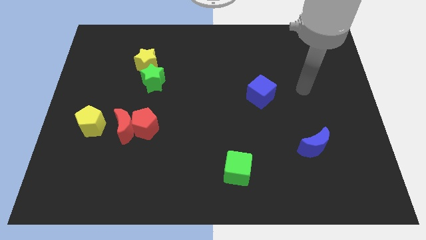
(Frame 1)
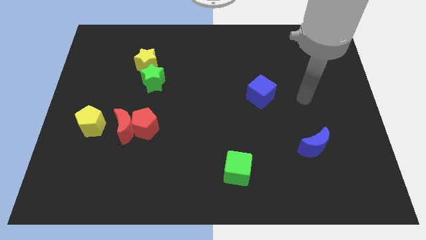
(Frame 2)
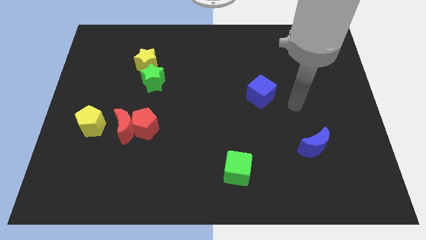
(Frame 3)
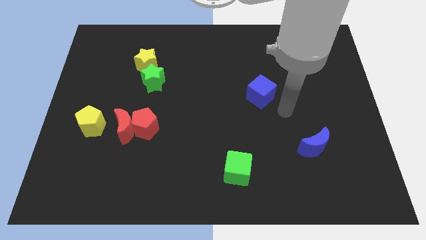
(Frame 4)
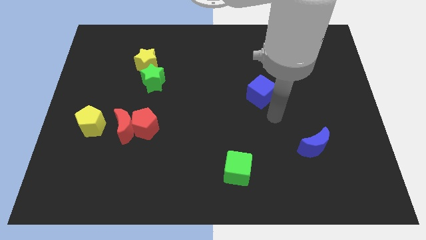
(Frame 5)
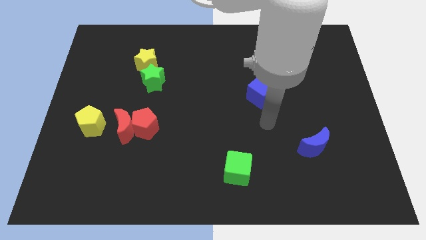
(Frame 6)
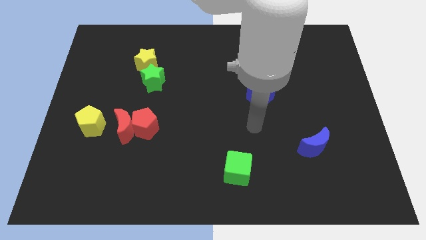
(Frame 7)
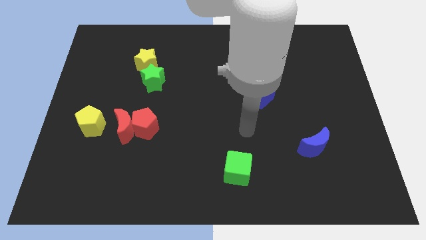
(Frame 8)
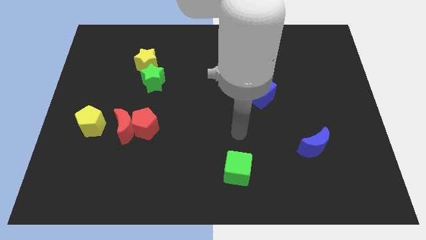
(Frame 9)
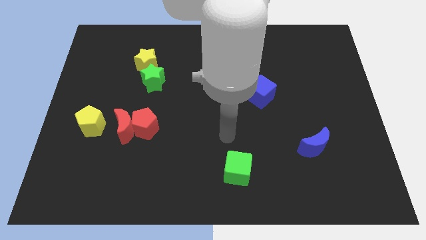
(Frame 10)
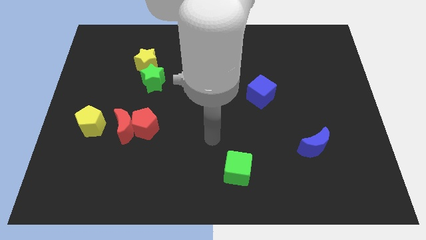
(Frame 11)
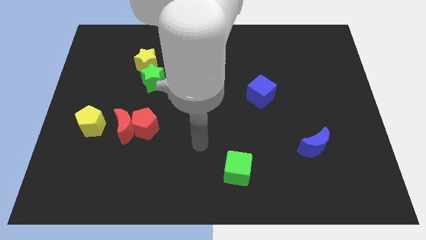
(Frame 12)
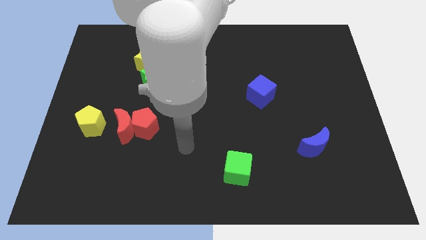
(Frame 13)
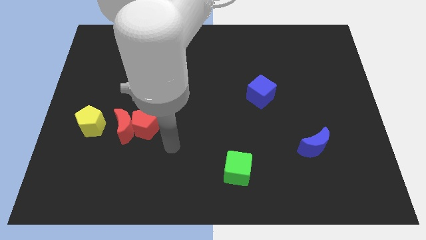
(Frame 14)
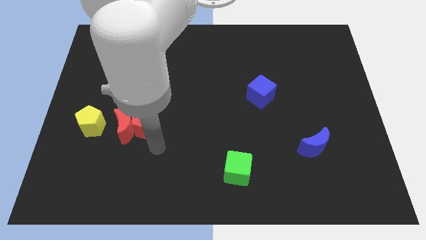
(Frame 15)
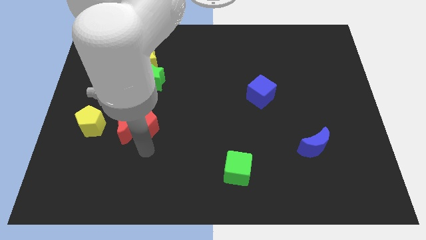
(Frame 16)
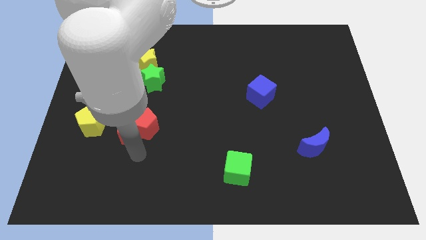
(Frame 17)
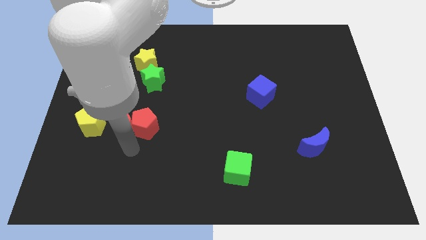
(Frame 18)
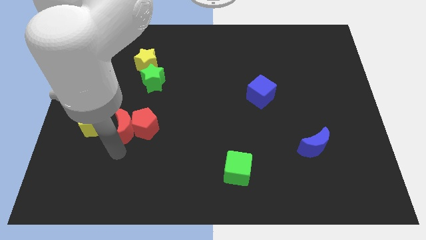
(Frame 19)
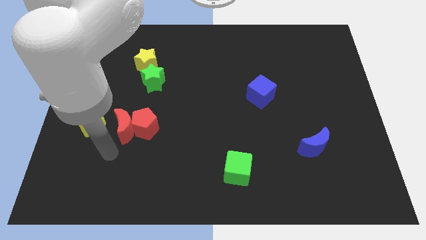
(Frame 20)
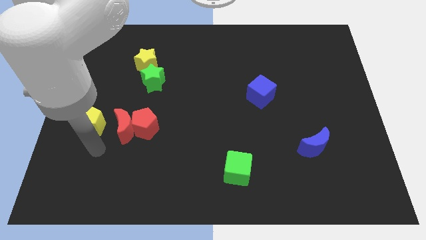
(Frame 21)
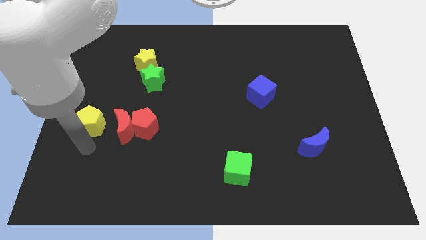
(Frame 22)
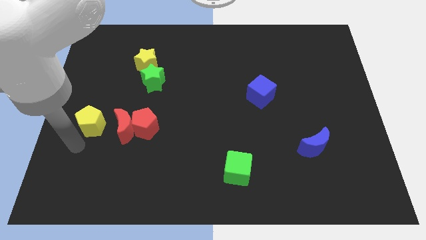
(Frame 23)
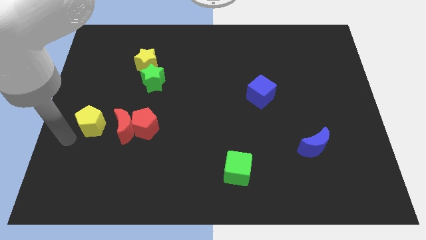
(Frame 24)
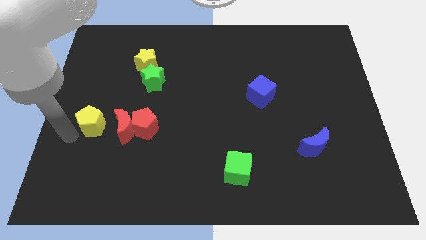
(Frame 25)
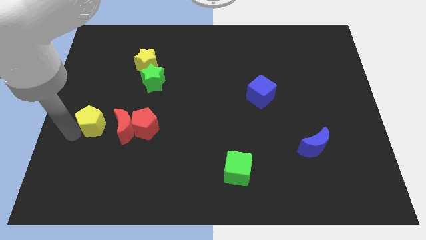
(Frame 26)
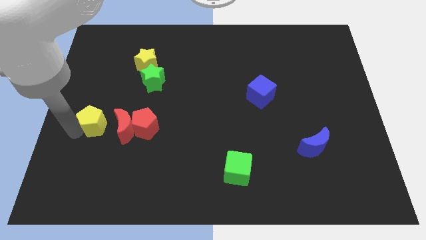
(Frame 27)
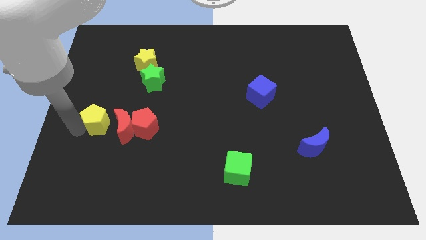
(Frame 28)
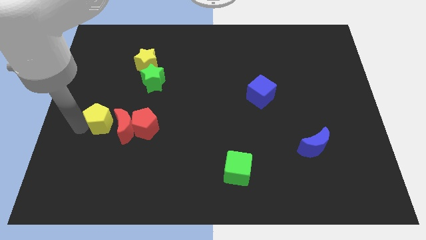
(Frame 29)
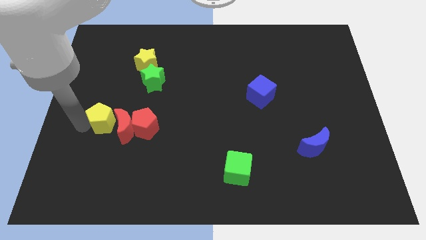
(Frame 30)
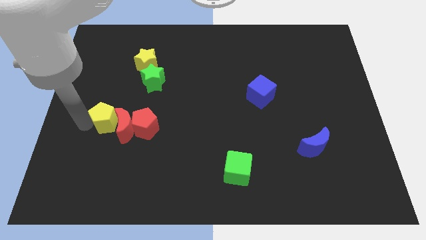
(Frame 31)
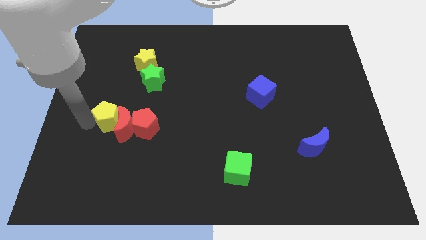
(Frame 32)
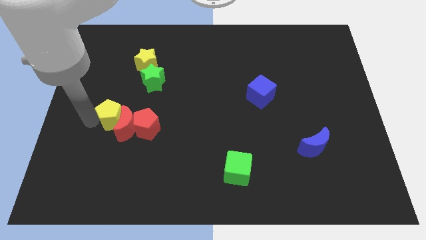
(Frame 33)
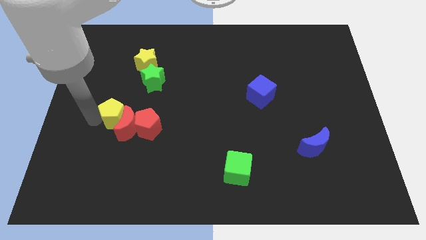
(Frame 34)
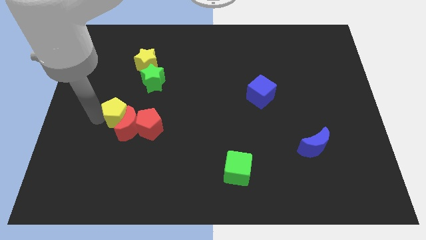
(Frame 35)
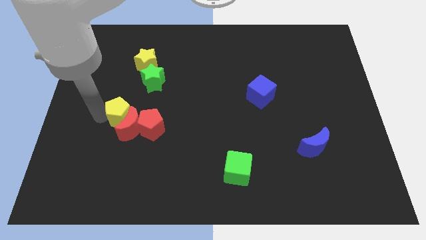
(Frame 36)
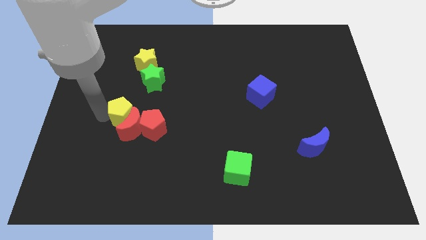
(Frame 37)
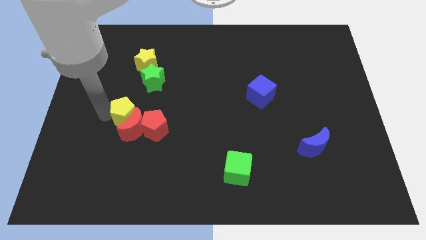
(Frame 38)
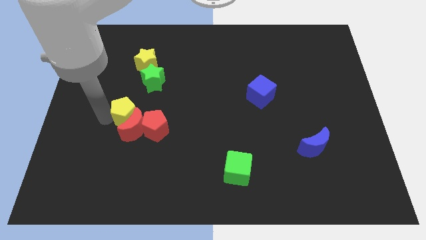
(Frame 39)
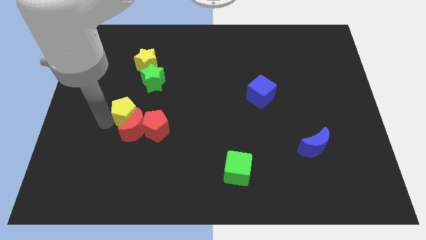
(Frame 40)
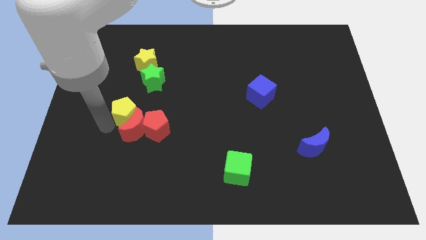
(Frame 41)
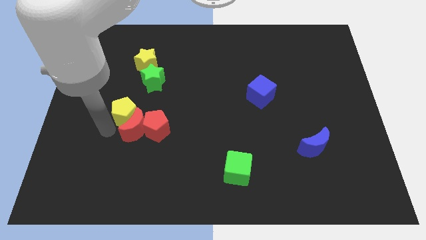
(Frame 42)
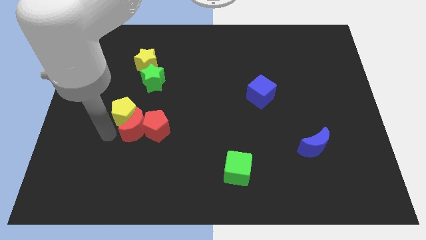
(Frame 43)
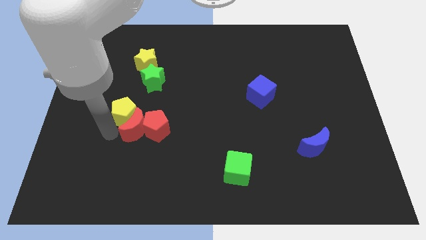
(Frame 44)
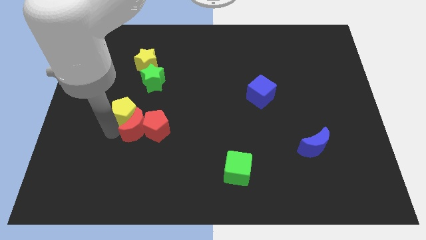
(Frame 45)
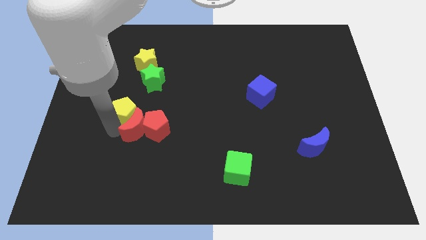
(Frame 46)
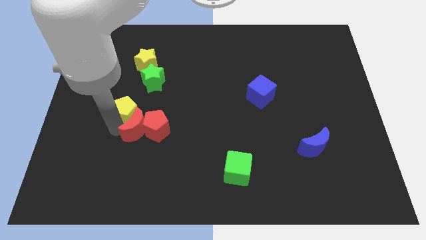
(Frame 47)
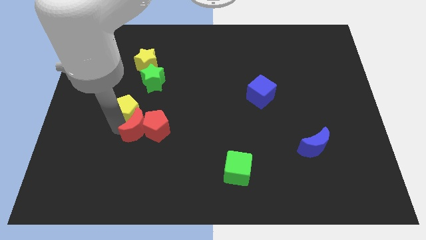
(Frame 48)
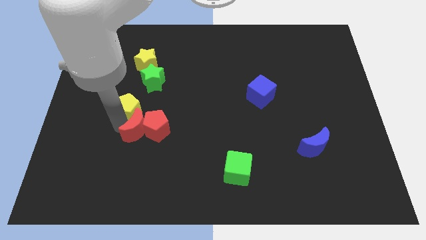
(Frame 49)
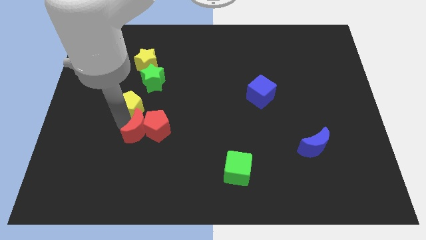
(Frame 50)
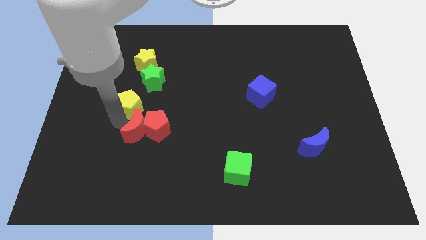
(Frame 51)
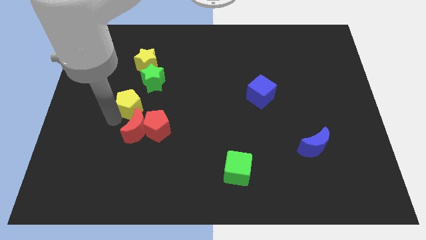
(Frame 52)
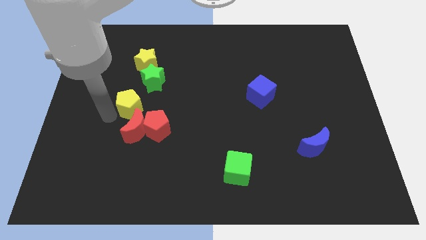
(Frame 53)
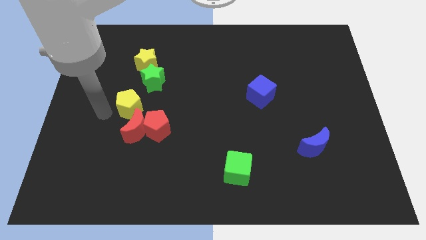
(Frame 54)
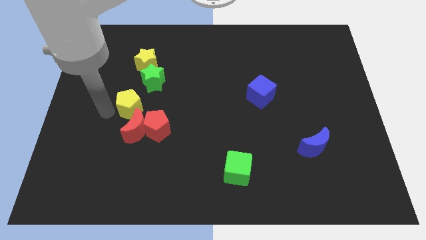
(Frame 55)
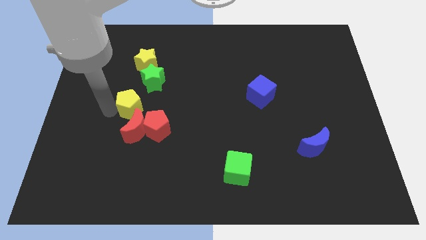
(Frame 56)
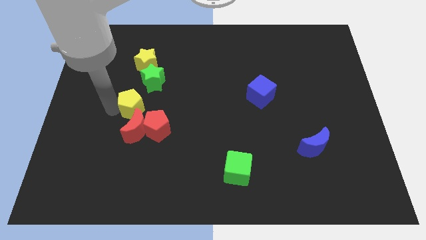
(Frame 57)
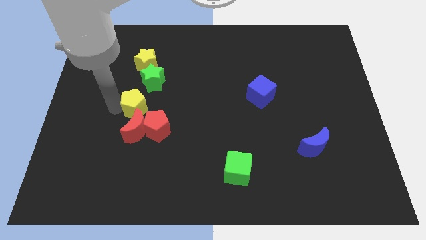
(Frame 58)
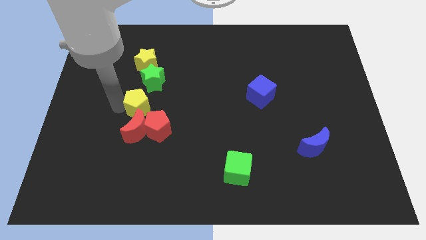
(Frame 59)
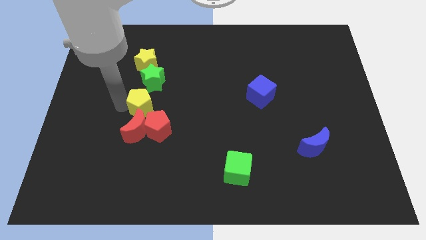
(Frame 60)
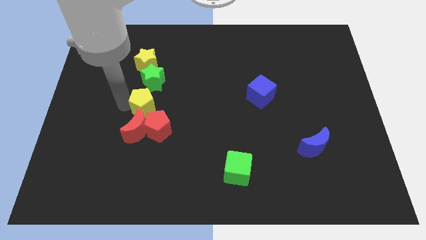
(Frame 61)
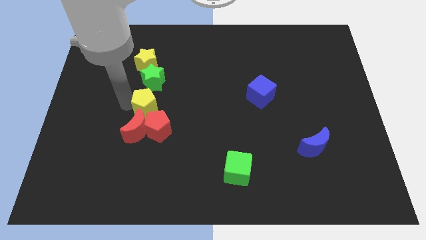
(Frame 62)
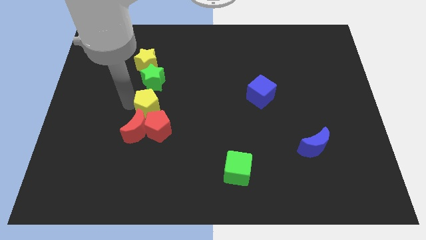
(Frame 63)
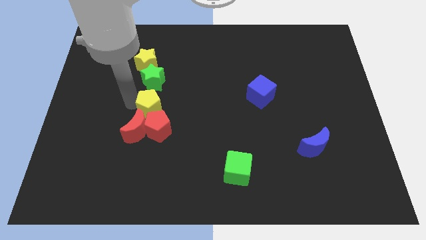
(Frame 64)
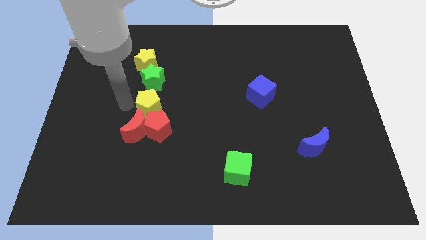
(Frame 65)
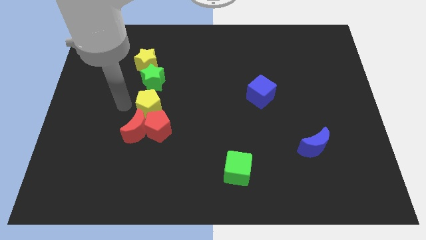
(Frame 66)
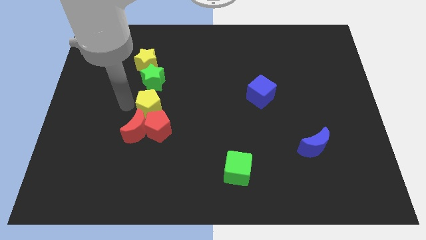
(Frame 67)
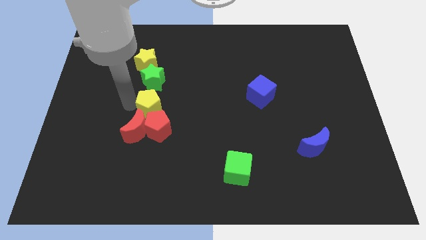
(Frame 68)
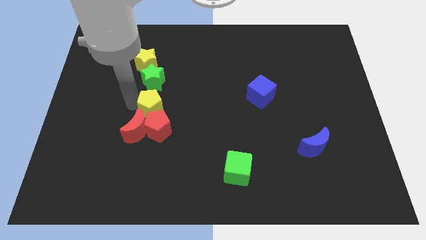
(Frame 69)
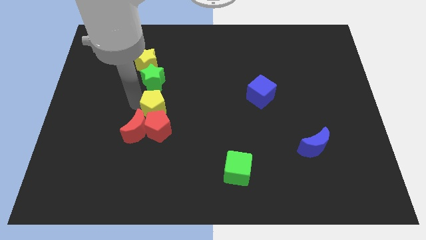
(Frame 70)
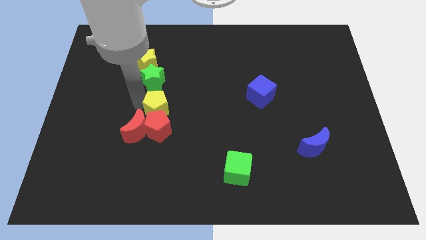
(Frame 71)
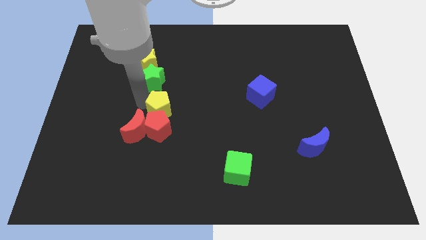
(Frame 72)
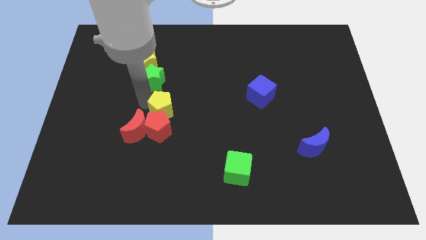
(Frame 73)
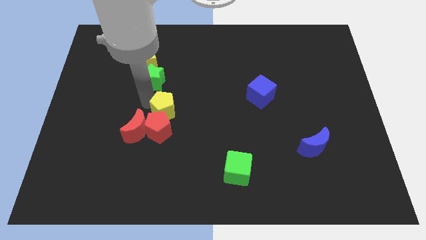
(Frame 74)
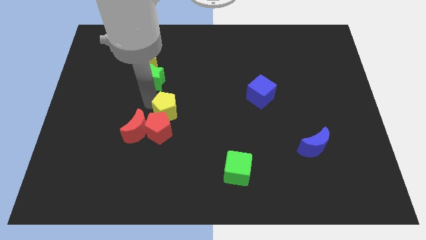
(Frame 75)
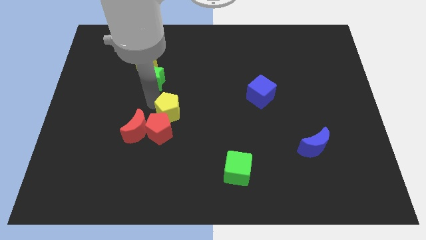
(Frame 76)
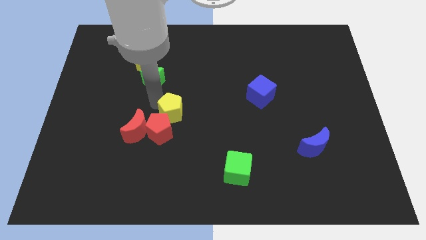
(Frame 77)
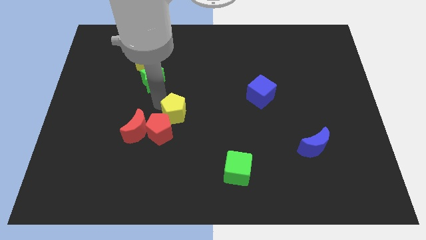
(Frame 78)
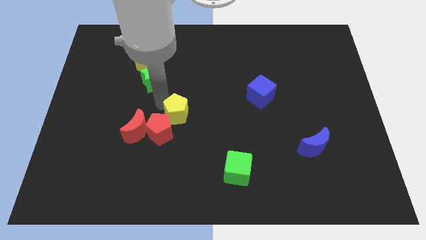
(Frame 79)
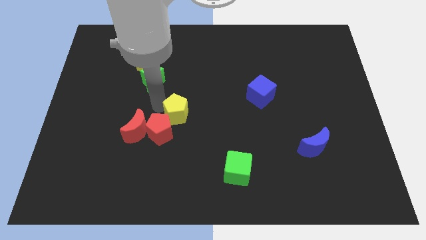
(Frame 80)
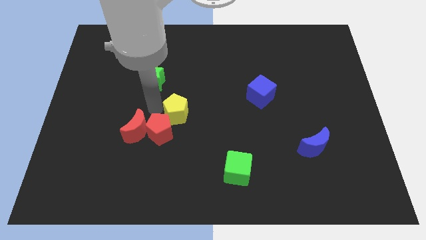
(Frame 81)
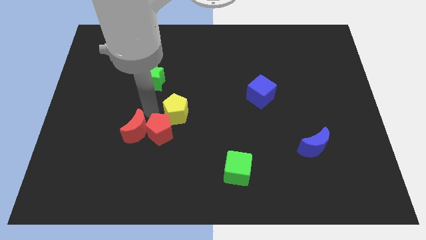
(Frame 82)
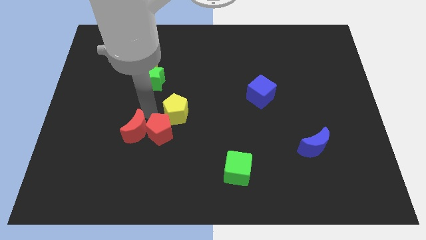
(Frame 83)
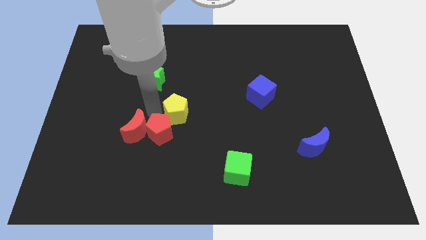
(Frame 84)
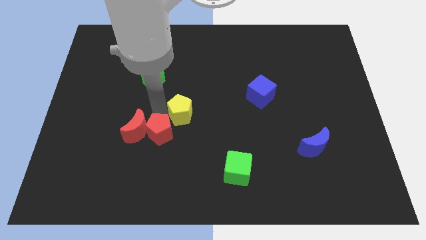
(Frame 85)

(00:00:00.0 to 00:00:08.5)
move the yellow pentagon right
